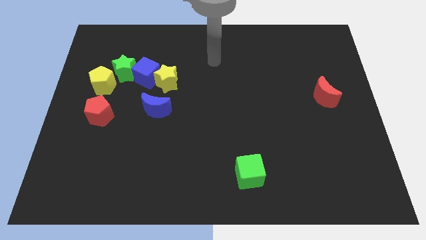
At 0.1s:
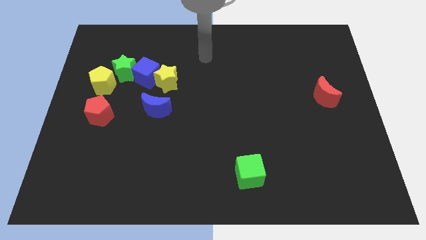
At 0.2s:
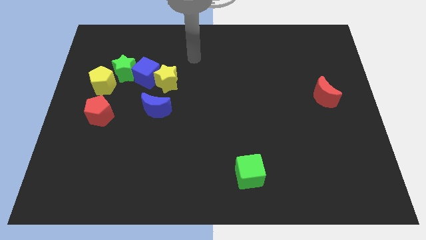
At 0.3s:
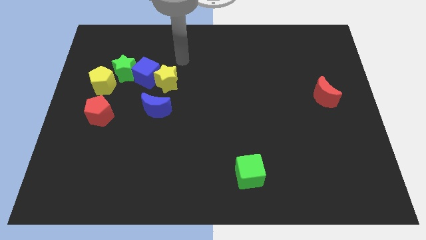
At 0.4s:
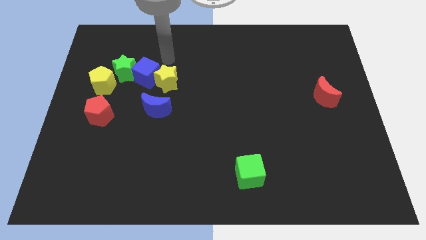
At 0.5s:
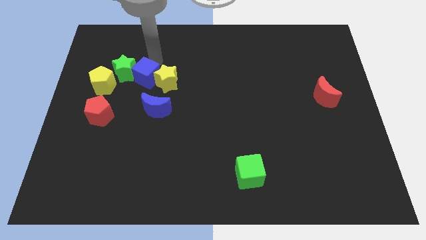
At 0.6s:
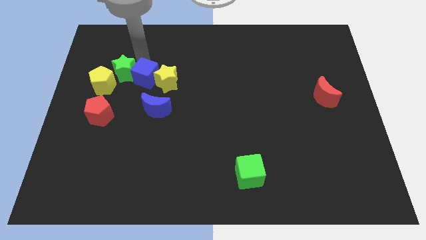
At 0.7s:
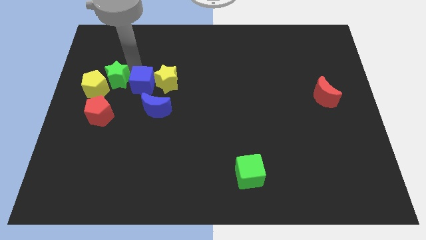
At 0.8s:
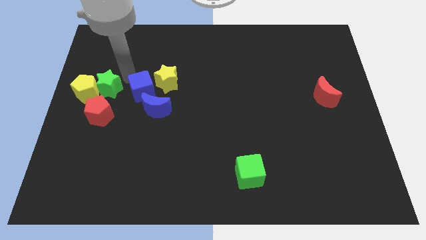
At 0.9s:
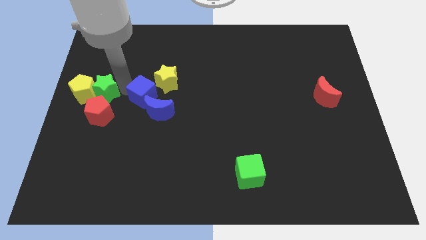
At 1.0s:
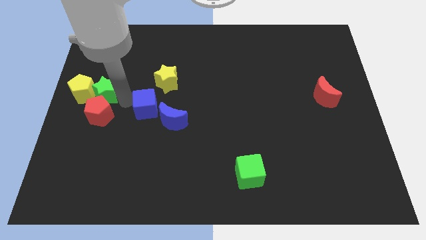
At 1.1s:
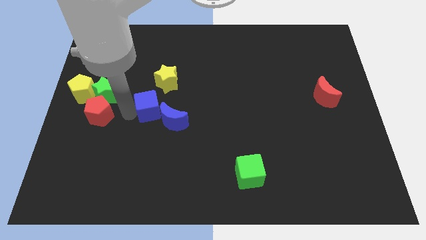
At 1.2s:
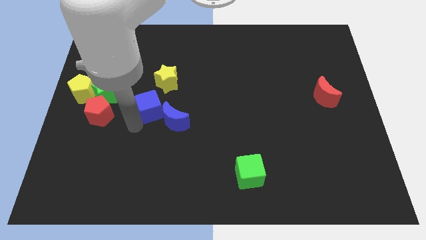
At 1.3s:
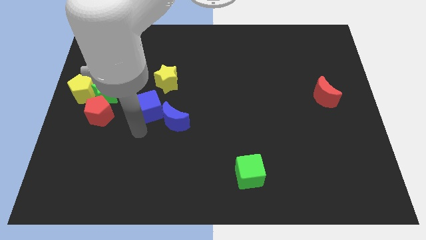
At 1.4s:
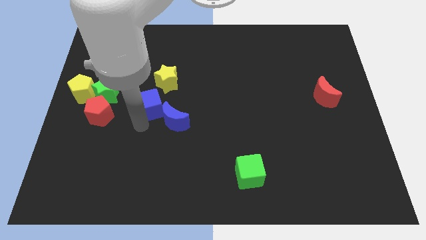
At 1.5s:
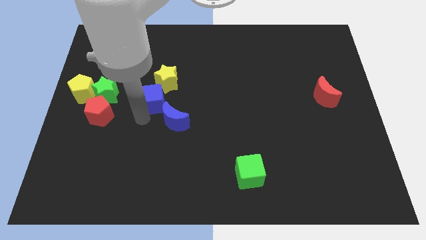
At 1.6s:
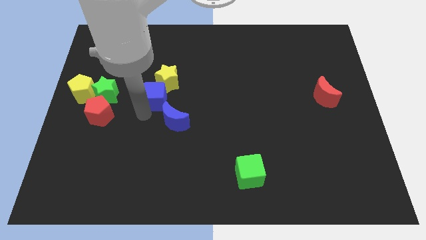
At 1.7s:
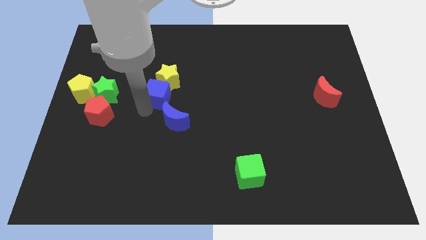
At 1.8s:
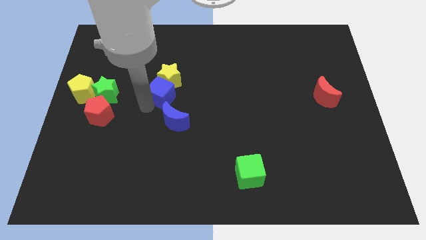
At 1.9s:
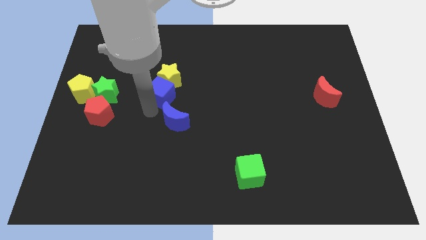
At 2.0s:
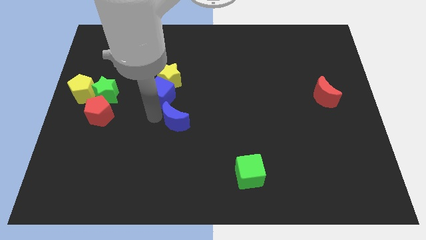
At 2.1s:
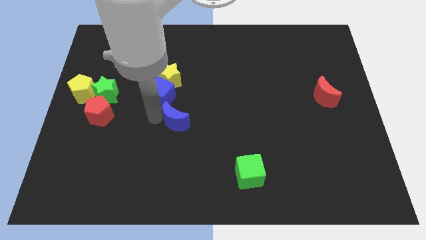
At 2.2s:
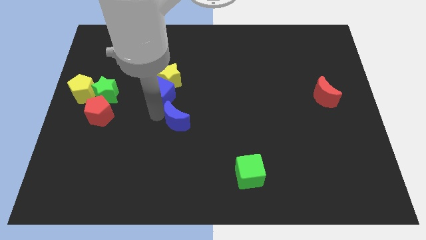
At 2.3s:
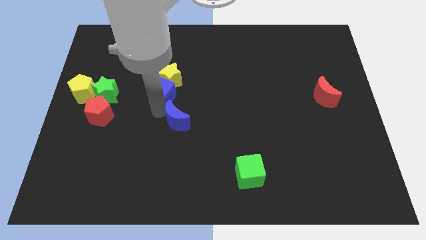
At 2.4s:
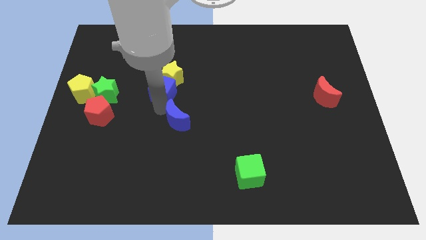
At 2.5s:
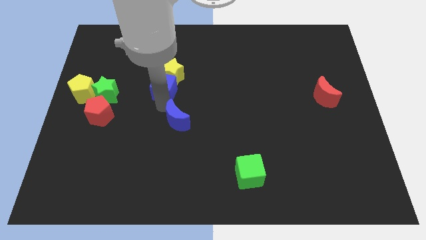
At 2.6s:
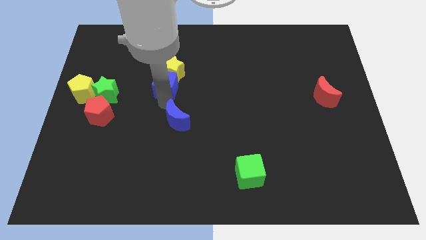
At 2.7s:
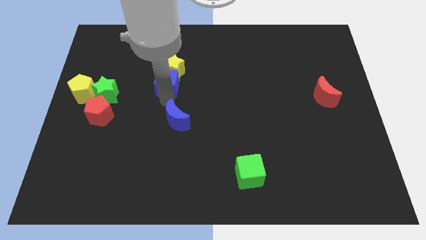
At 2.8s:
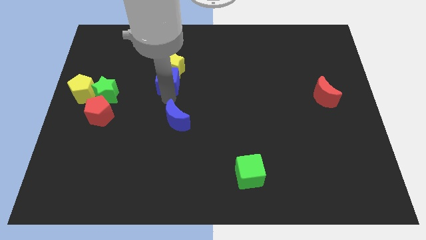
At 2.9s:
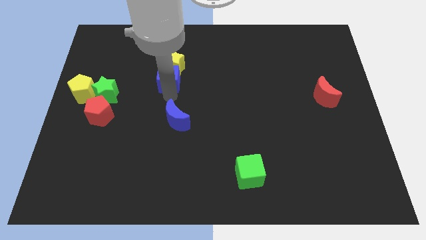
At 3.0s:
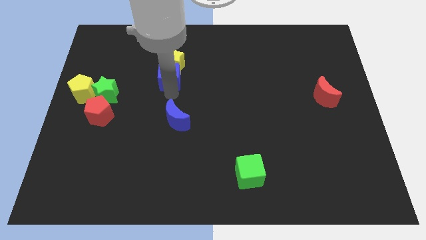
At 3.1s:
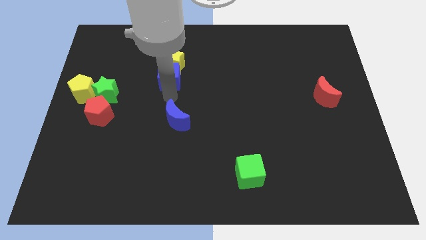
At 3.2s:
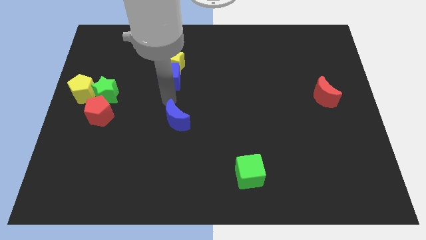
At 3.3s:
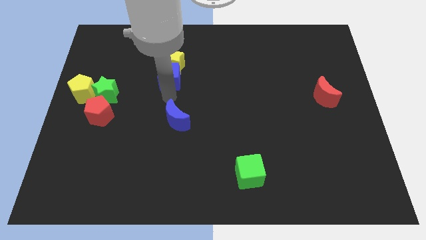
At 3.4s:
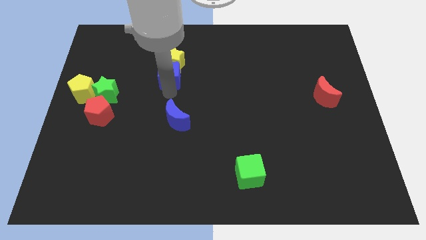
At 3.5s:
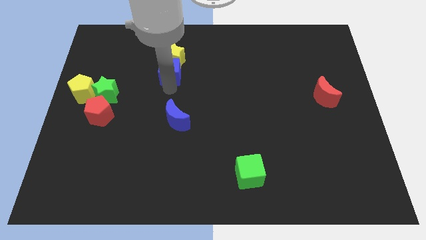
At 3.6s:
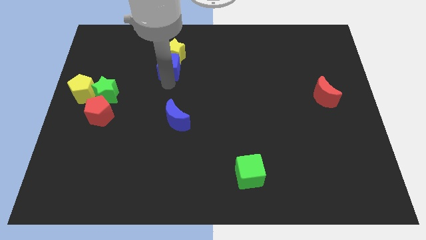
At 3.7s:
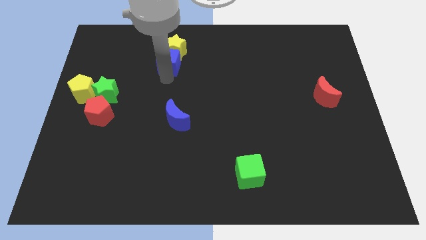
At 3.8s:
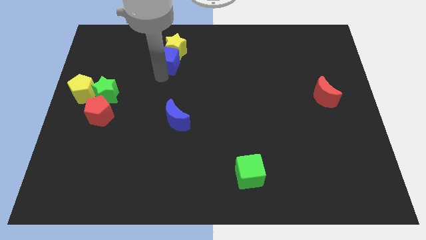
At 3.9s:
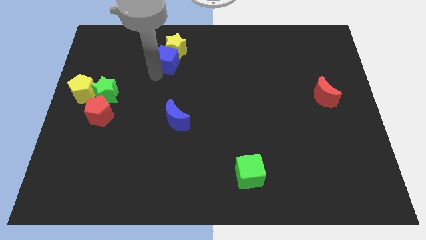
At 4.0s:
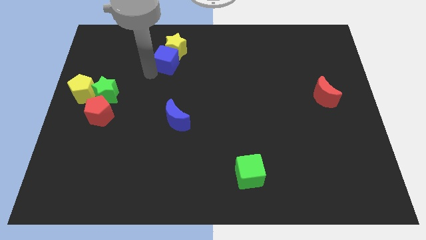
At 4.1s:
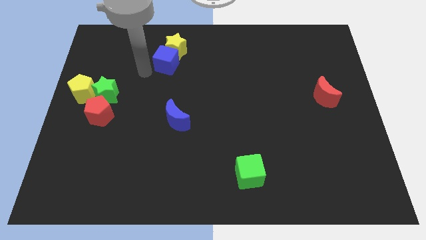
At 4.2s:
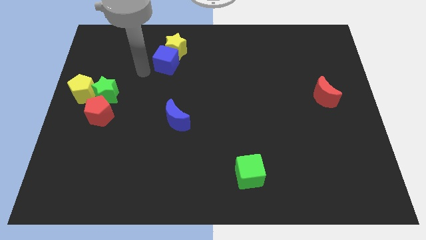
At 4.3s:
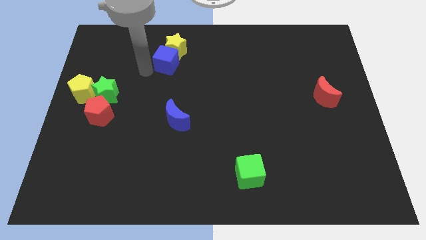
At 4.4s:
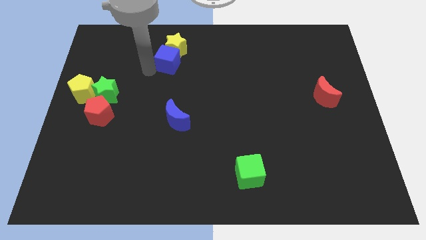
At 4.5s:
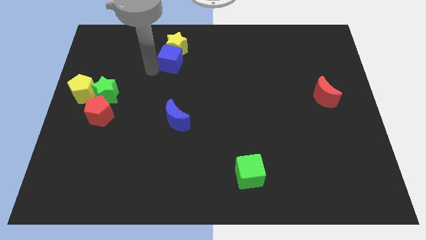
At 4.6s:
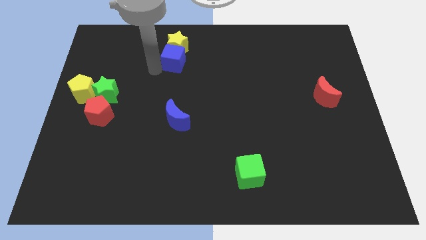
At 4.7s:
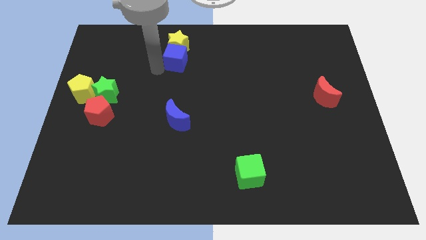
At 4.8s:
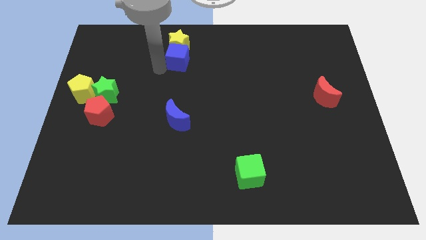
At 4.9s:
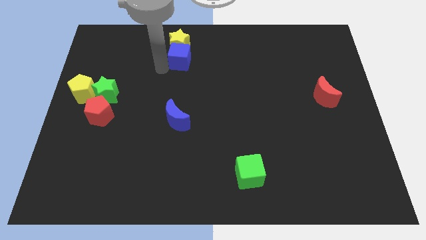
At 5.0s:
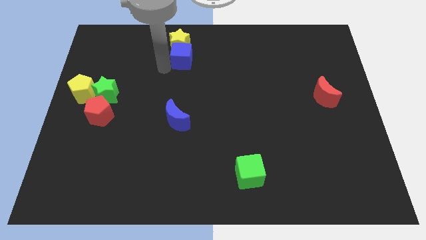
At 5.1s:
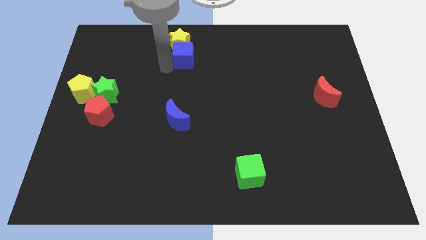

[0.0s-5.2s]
separate the blue cube from the yellow star and green star

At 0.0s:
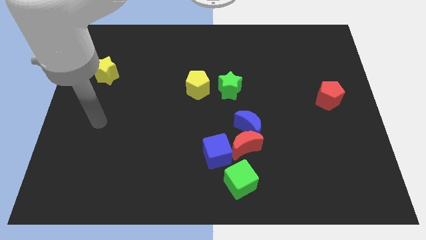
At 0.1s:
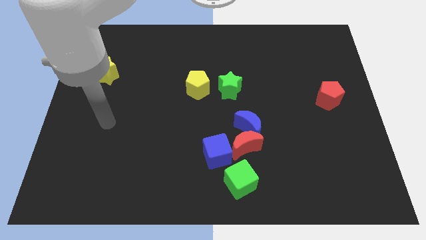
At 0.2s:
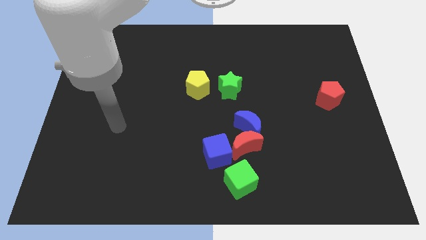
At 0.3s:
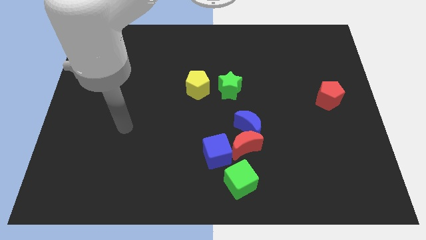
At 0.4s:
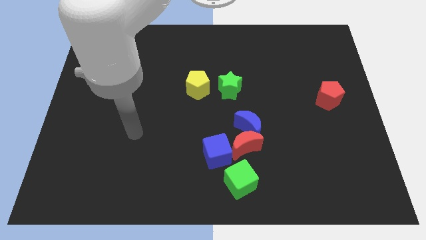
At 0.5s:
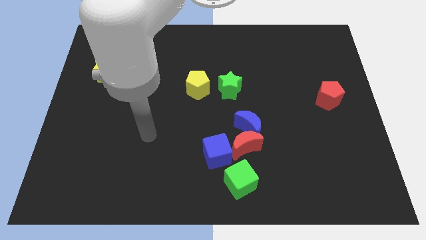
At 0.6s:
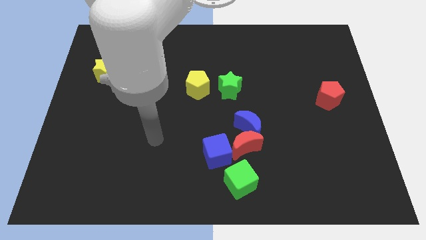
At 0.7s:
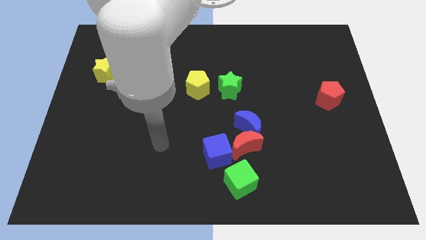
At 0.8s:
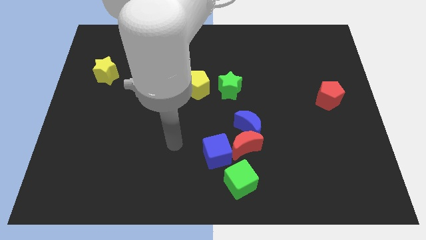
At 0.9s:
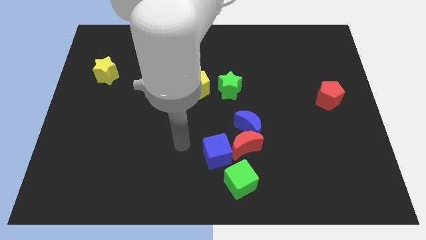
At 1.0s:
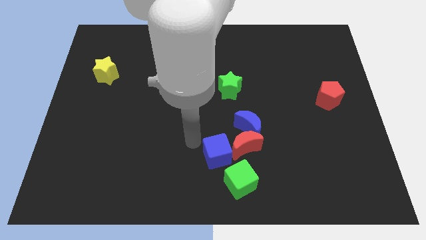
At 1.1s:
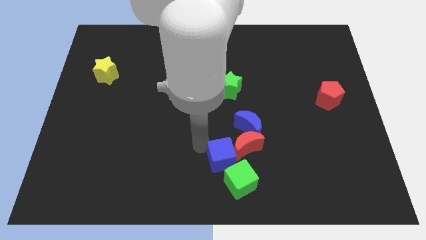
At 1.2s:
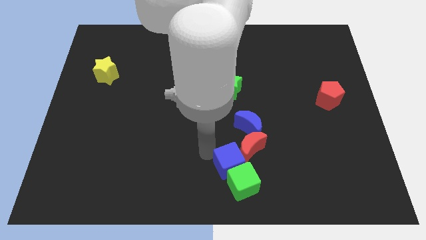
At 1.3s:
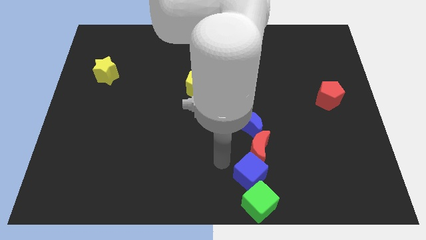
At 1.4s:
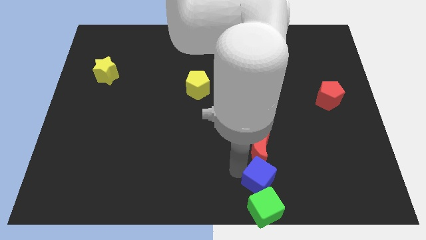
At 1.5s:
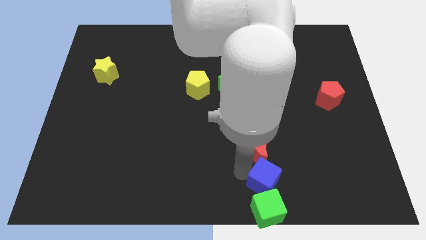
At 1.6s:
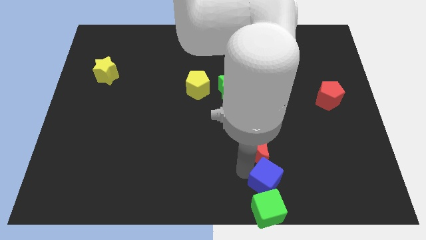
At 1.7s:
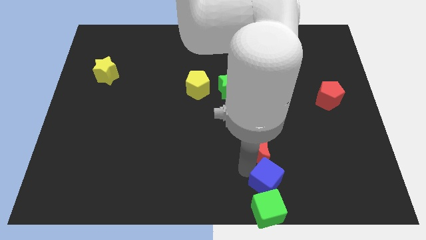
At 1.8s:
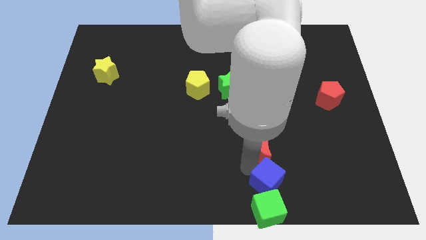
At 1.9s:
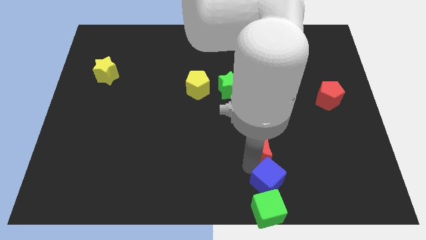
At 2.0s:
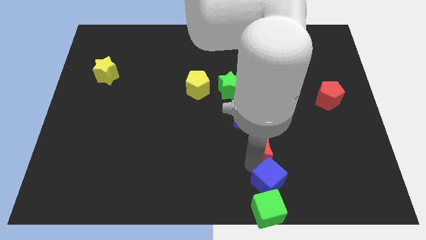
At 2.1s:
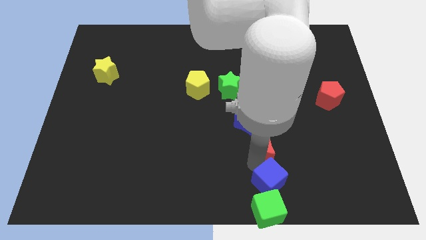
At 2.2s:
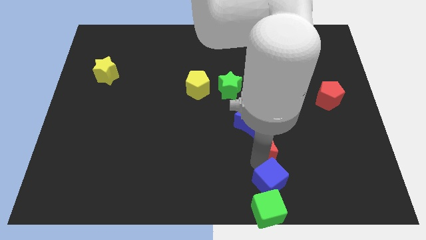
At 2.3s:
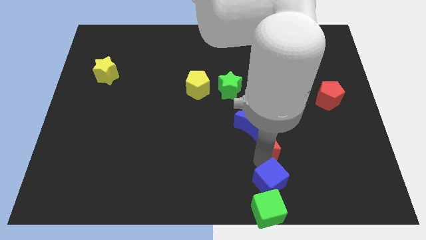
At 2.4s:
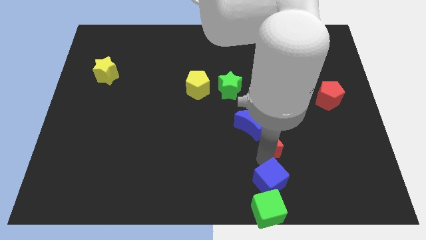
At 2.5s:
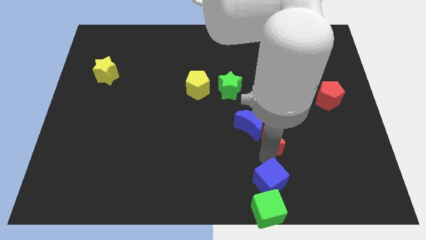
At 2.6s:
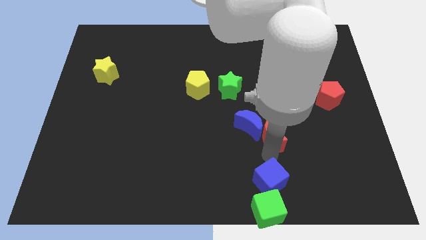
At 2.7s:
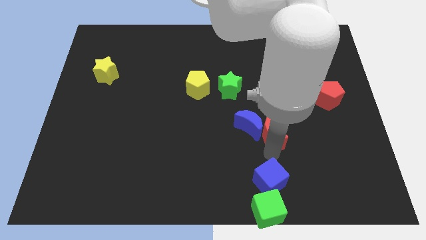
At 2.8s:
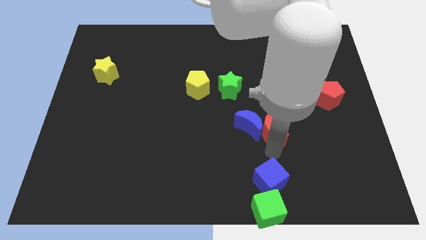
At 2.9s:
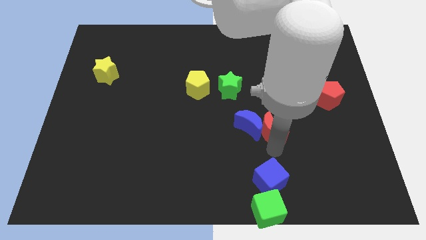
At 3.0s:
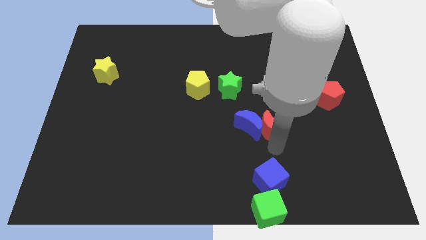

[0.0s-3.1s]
separate the red moon from the blue moon, blue cube, and green cube

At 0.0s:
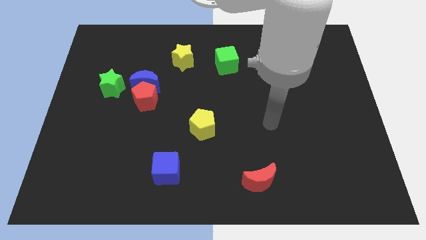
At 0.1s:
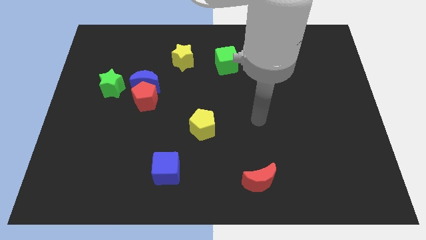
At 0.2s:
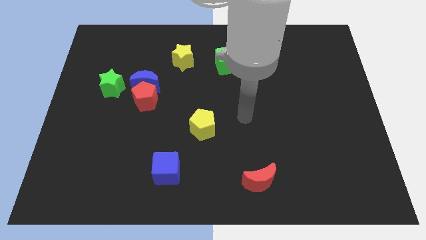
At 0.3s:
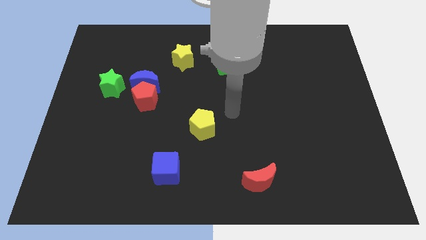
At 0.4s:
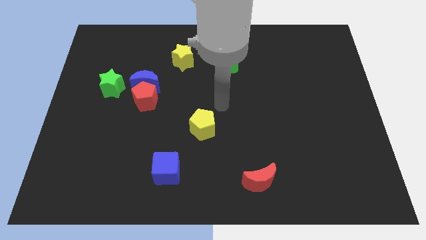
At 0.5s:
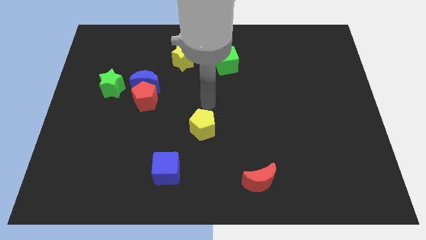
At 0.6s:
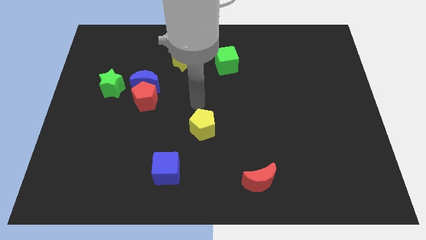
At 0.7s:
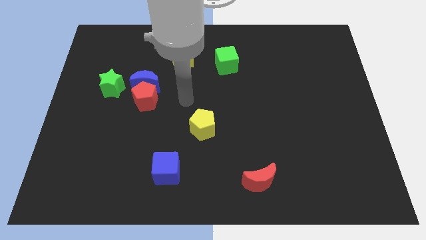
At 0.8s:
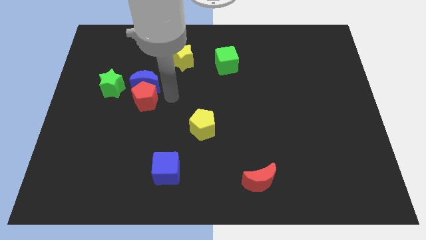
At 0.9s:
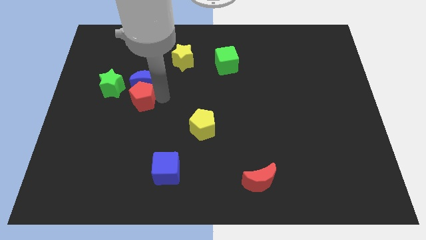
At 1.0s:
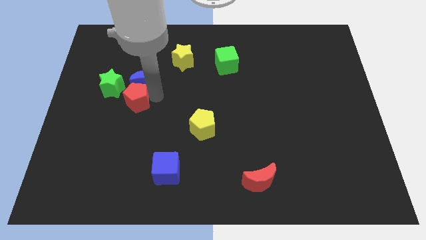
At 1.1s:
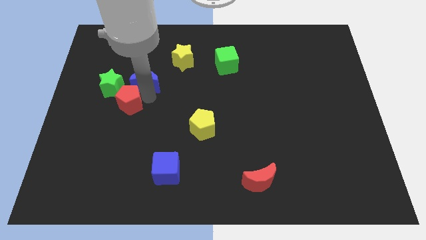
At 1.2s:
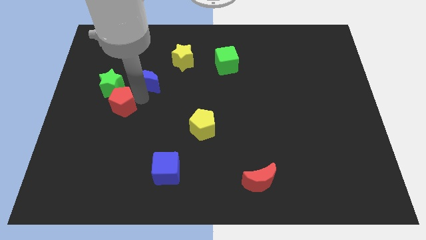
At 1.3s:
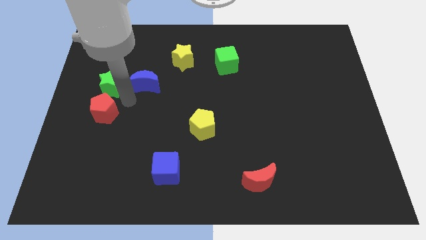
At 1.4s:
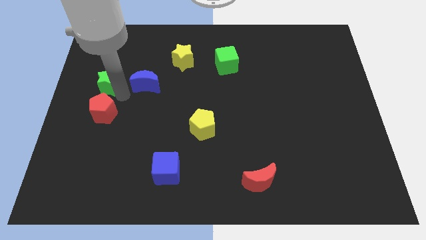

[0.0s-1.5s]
move the blue moon away from the red pentagon and green star
